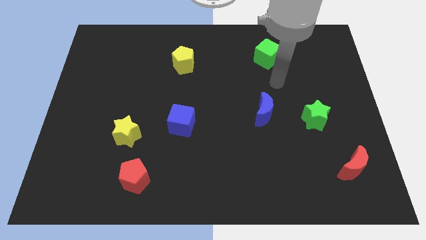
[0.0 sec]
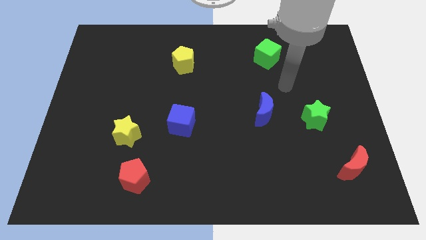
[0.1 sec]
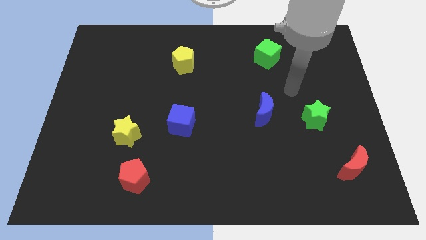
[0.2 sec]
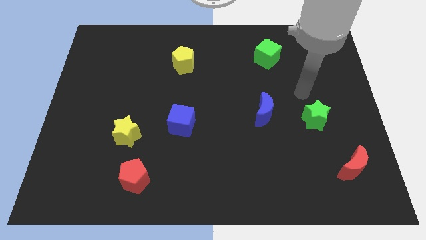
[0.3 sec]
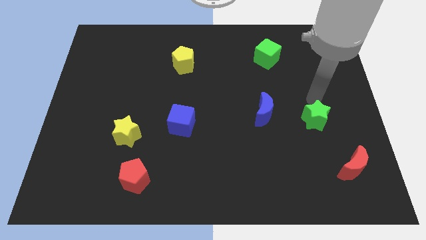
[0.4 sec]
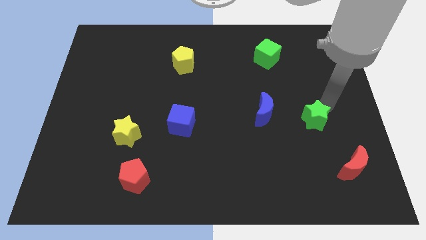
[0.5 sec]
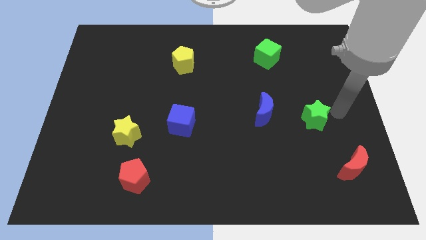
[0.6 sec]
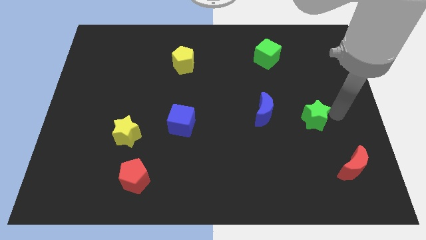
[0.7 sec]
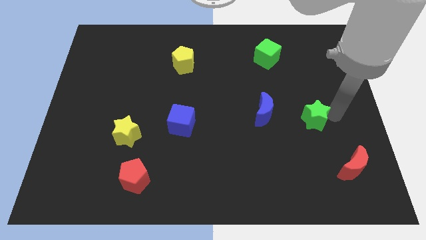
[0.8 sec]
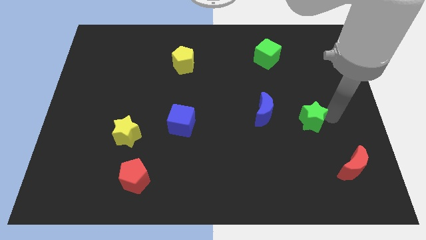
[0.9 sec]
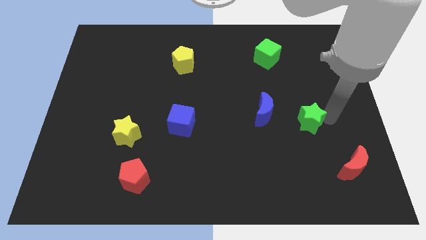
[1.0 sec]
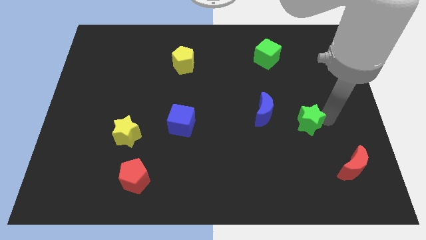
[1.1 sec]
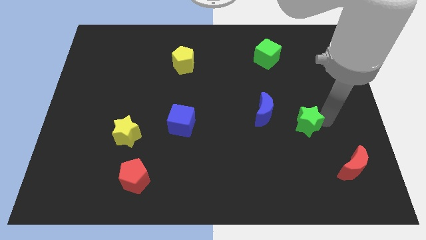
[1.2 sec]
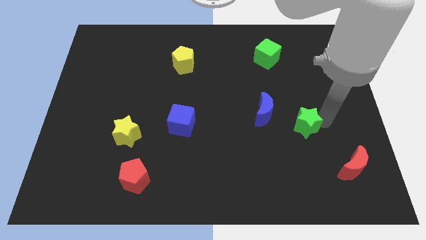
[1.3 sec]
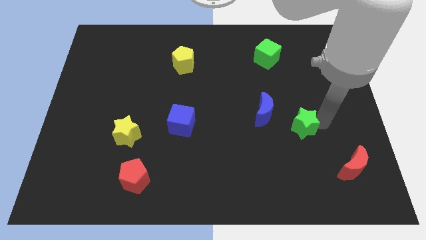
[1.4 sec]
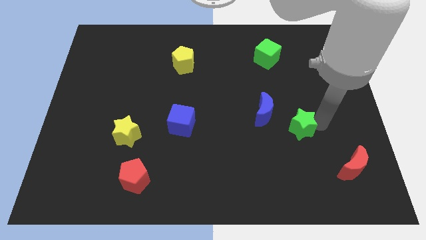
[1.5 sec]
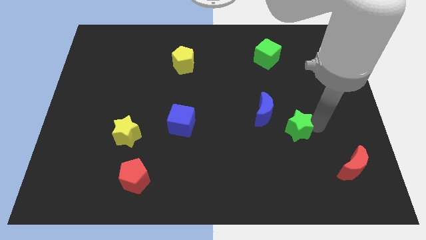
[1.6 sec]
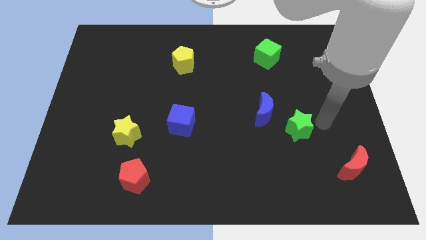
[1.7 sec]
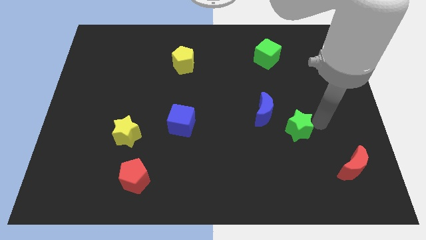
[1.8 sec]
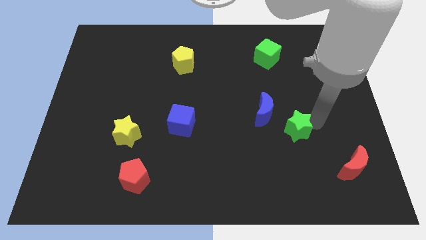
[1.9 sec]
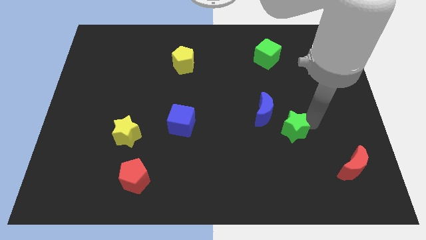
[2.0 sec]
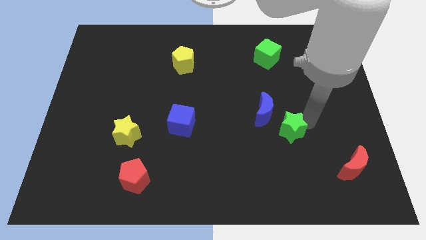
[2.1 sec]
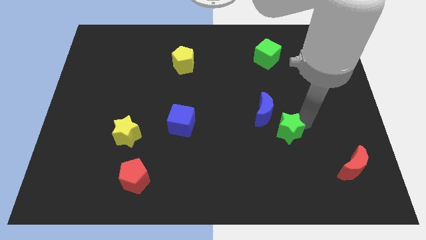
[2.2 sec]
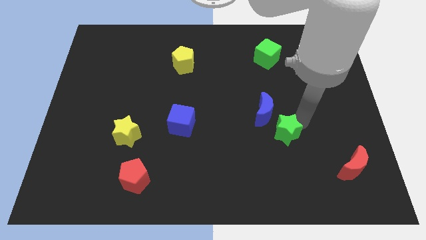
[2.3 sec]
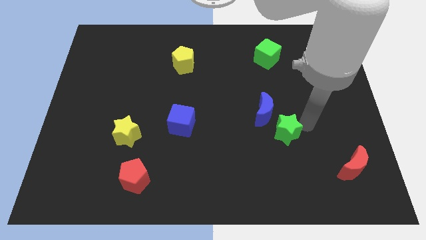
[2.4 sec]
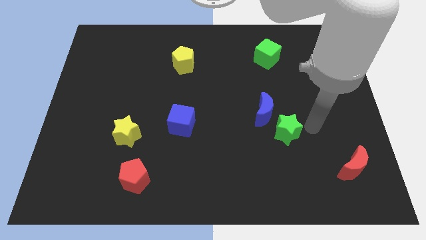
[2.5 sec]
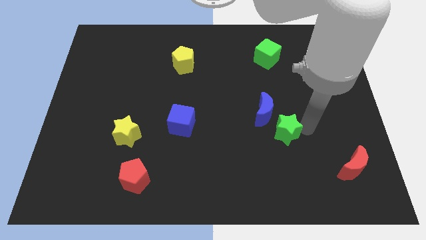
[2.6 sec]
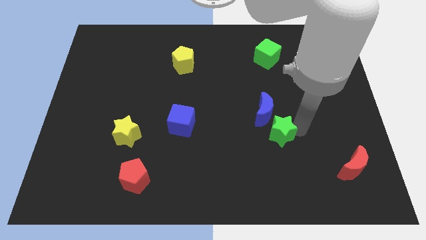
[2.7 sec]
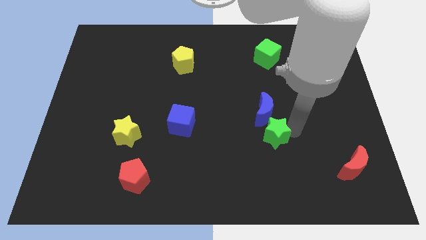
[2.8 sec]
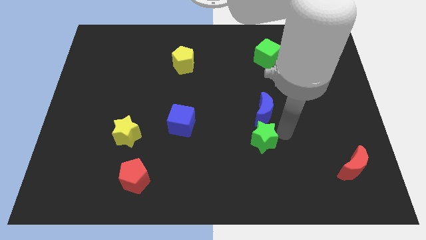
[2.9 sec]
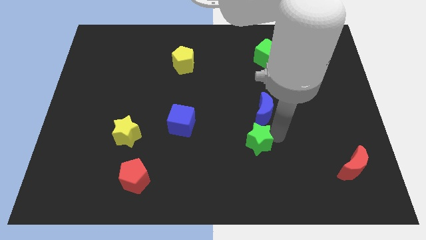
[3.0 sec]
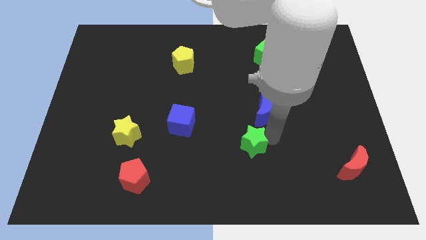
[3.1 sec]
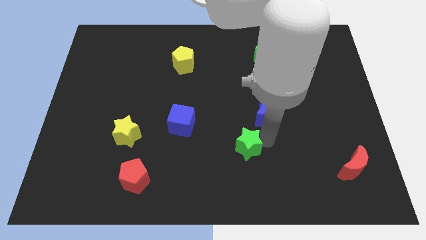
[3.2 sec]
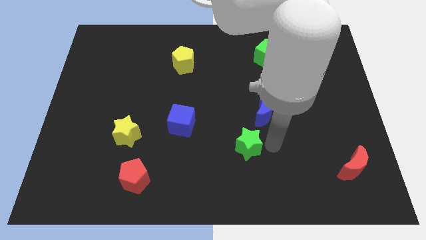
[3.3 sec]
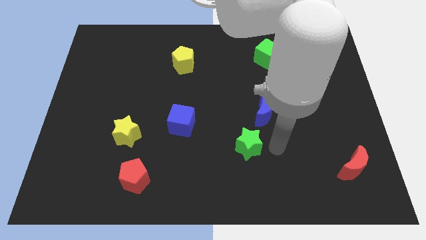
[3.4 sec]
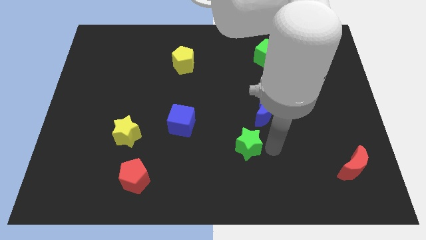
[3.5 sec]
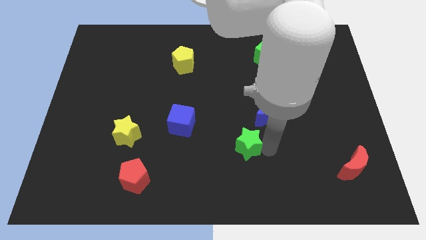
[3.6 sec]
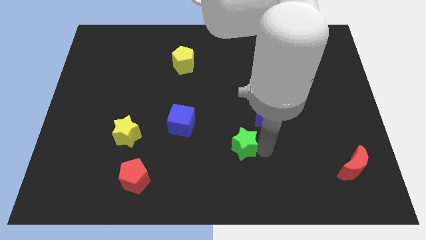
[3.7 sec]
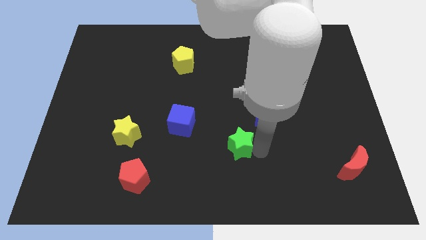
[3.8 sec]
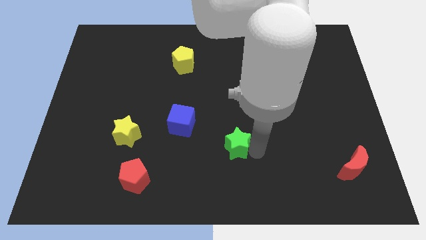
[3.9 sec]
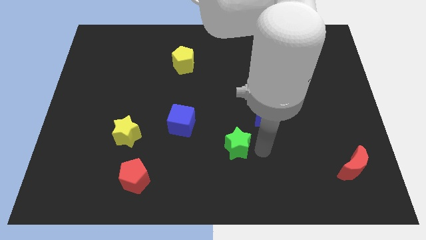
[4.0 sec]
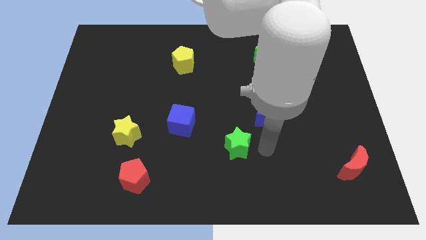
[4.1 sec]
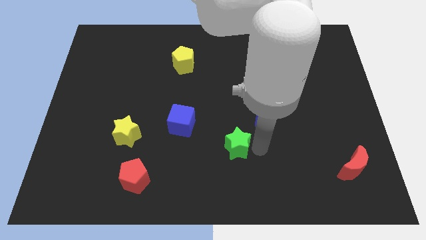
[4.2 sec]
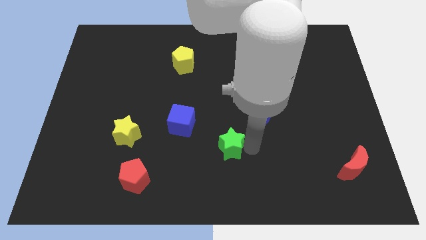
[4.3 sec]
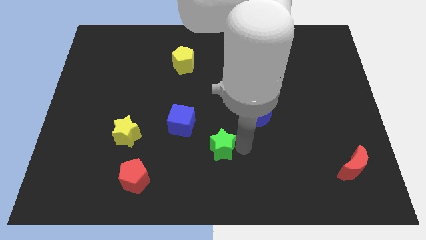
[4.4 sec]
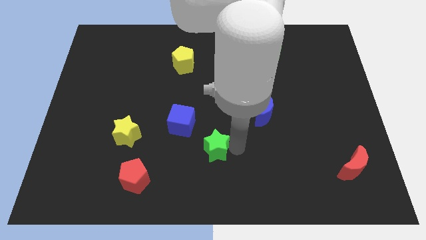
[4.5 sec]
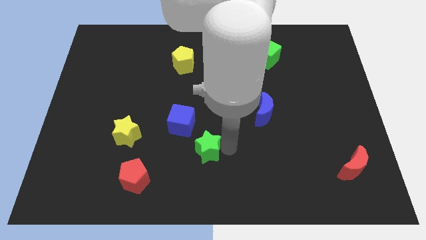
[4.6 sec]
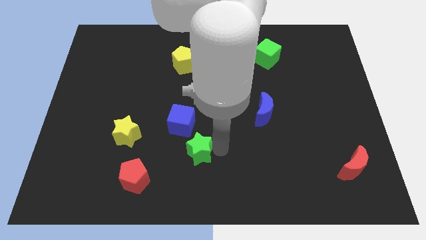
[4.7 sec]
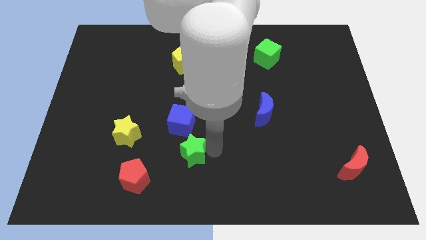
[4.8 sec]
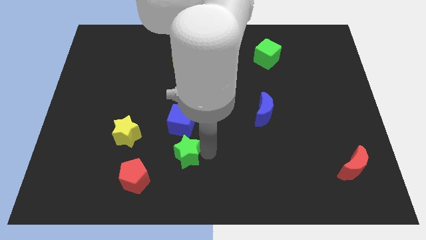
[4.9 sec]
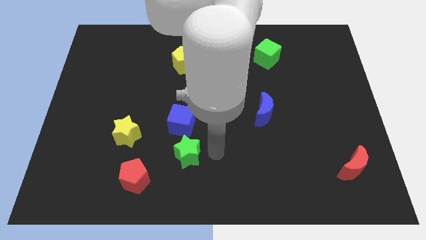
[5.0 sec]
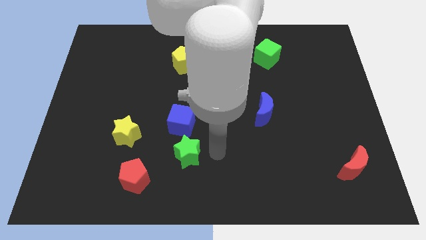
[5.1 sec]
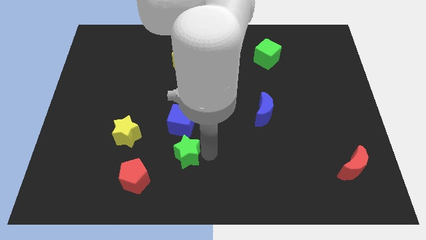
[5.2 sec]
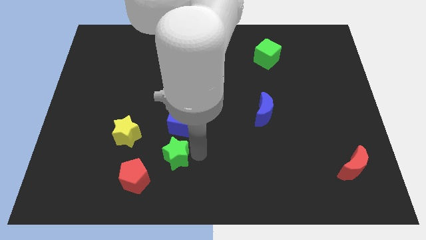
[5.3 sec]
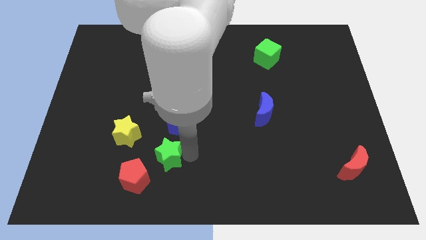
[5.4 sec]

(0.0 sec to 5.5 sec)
slide the green star to the bottom right side of the yellow star

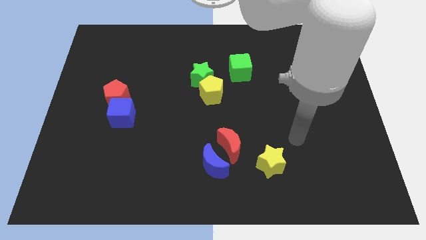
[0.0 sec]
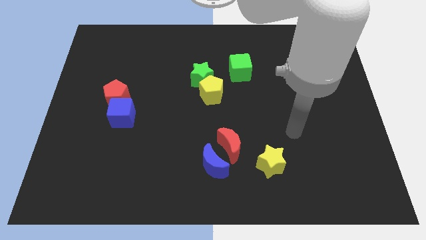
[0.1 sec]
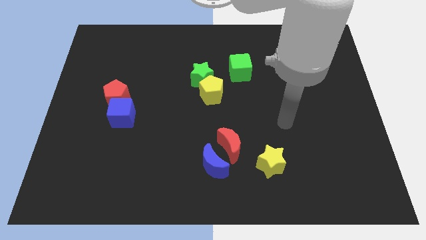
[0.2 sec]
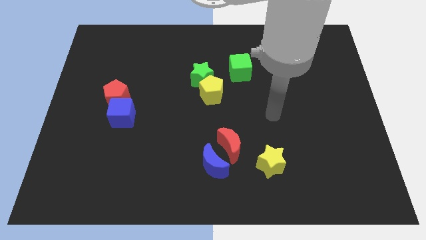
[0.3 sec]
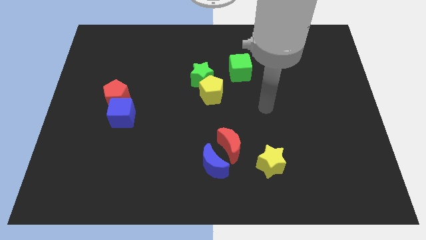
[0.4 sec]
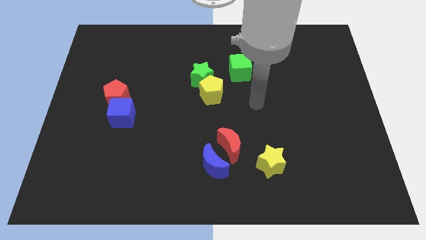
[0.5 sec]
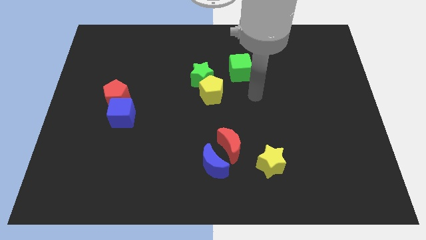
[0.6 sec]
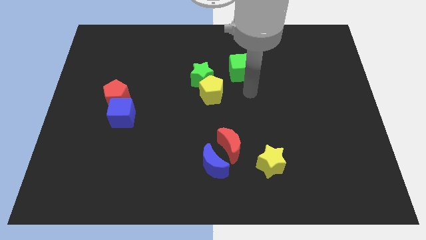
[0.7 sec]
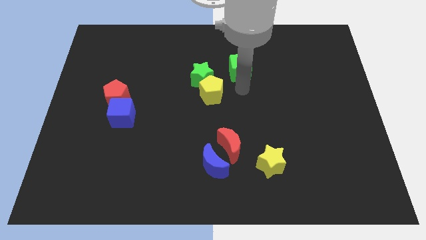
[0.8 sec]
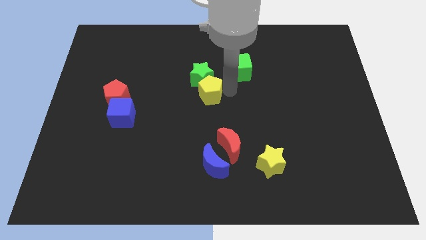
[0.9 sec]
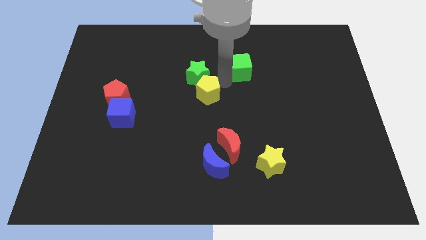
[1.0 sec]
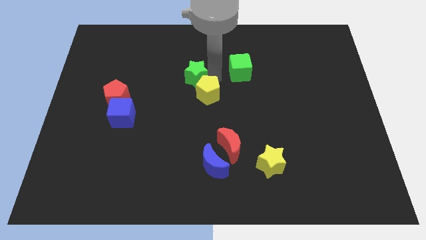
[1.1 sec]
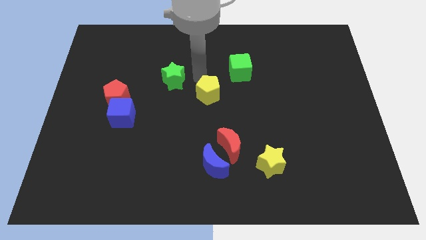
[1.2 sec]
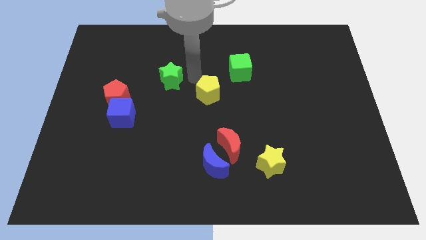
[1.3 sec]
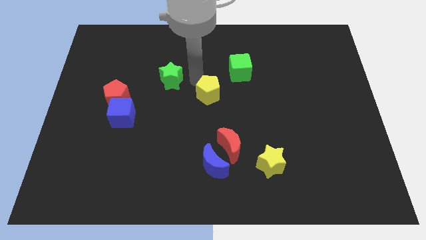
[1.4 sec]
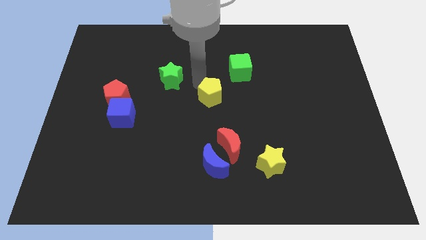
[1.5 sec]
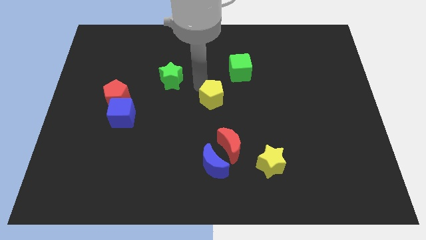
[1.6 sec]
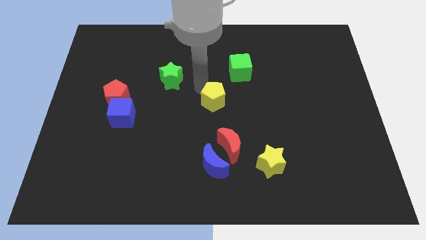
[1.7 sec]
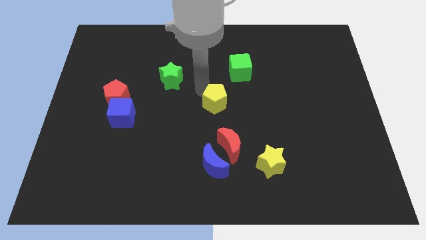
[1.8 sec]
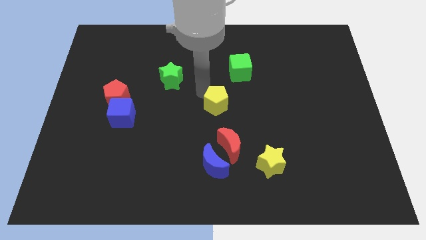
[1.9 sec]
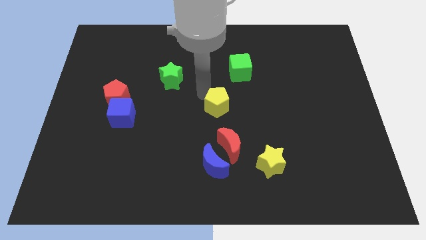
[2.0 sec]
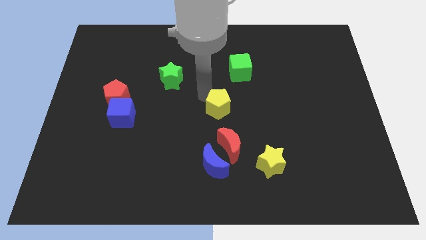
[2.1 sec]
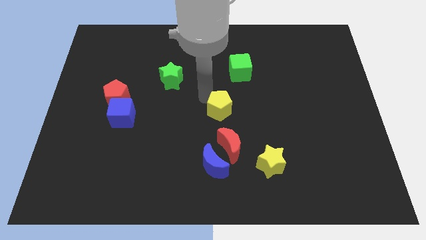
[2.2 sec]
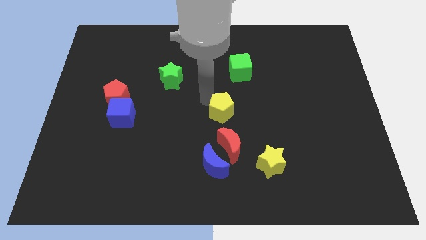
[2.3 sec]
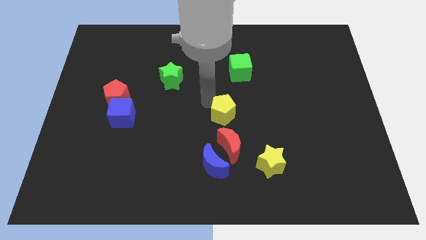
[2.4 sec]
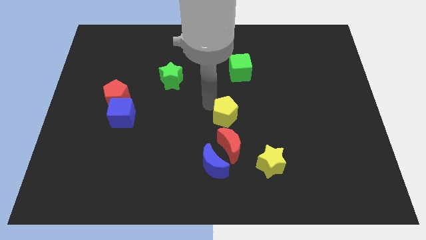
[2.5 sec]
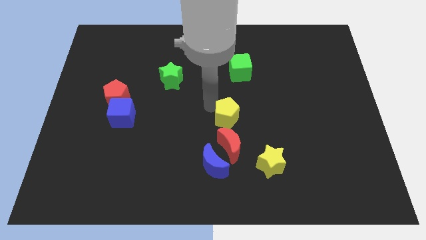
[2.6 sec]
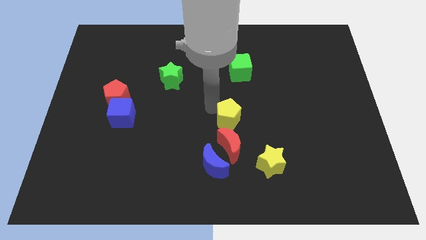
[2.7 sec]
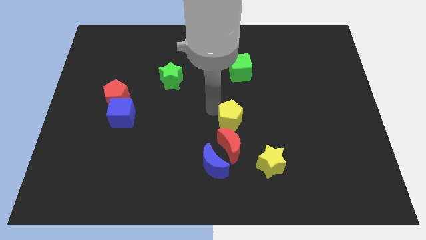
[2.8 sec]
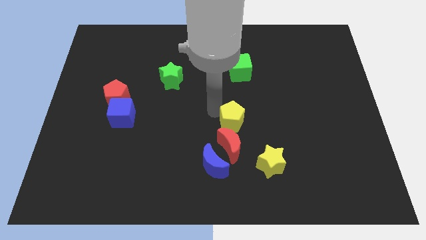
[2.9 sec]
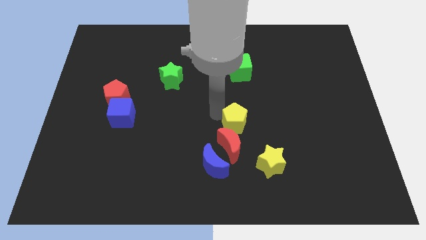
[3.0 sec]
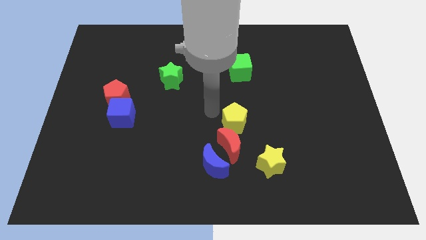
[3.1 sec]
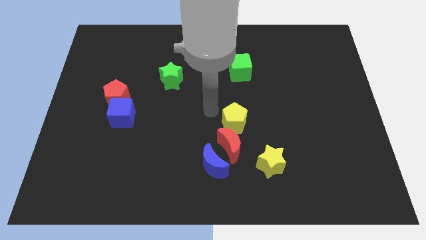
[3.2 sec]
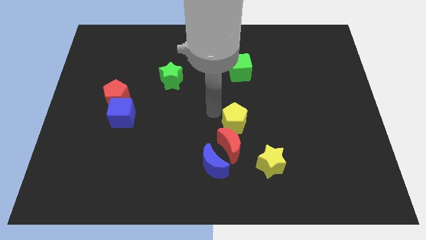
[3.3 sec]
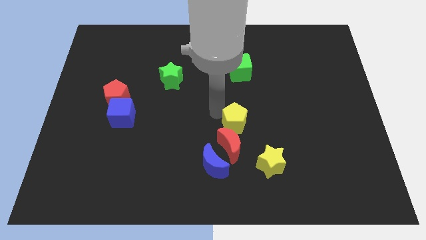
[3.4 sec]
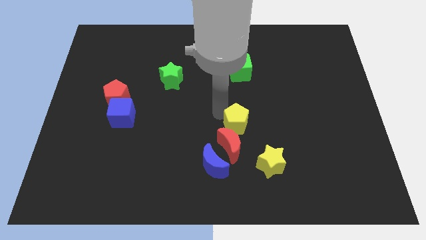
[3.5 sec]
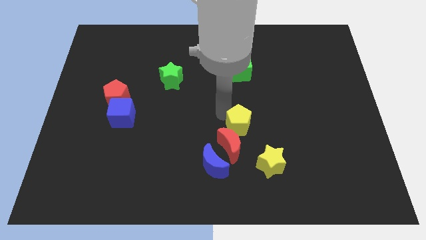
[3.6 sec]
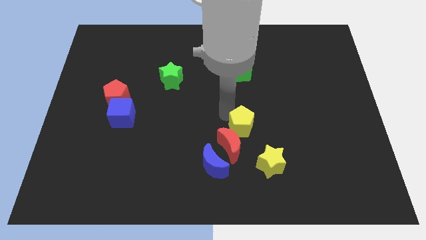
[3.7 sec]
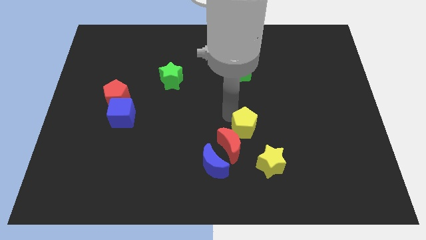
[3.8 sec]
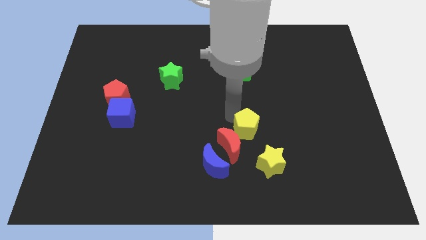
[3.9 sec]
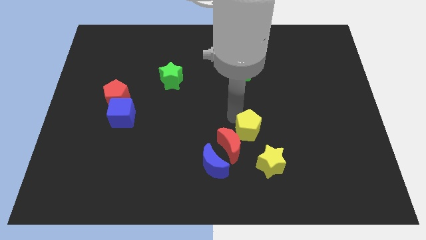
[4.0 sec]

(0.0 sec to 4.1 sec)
slide the yellow pentagon to the right of the red moon
